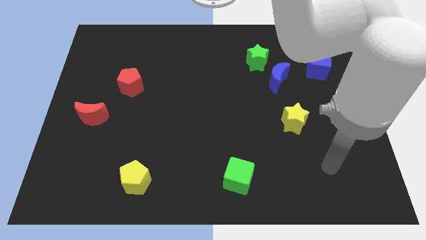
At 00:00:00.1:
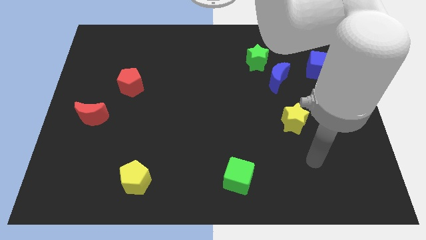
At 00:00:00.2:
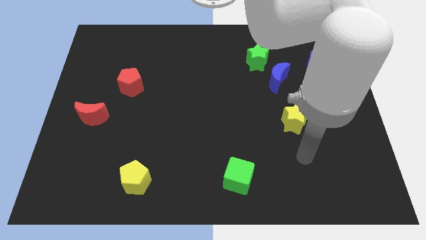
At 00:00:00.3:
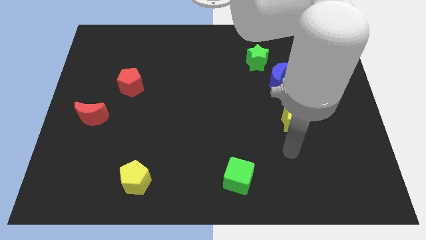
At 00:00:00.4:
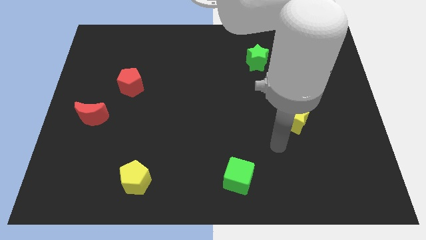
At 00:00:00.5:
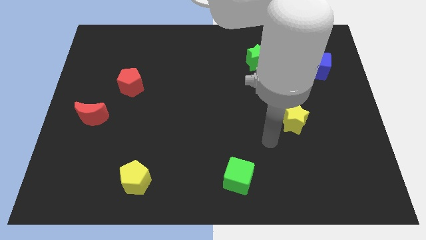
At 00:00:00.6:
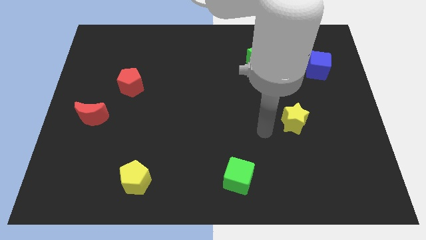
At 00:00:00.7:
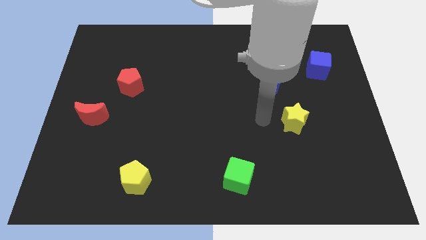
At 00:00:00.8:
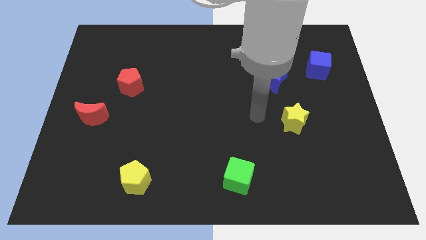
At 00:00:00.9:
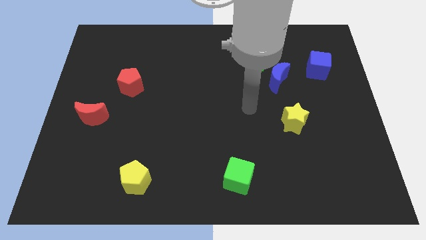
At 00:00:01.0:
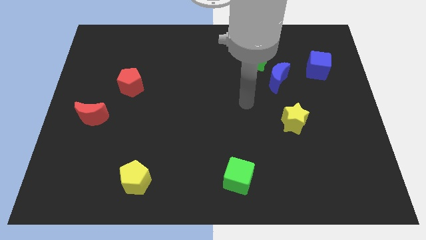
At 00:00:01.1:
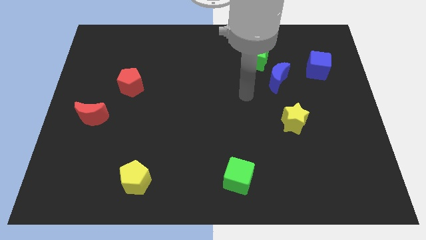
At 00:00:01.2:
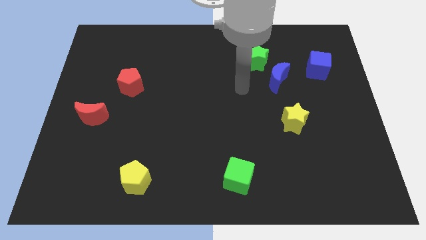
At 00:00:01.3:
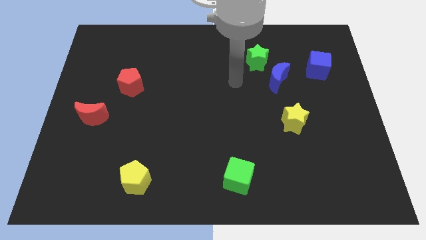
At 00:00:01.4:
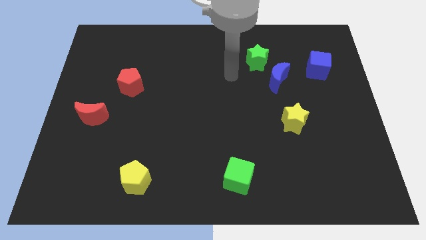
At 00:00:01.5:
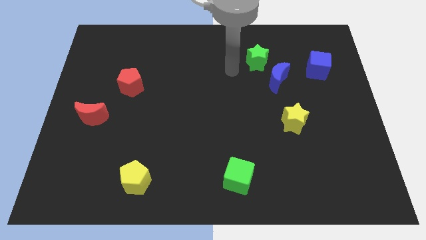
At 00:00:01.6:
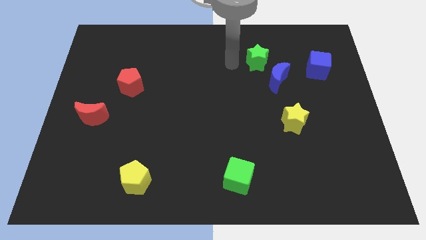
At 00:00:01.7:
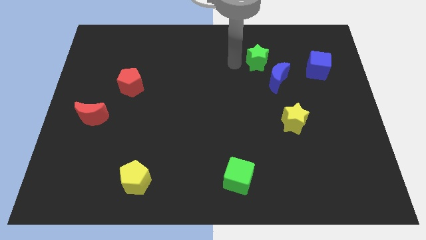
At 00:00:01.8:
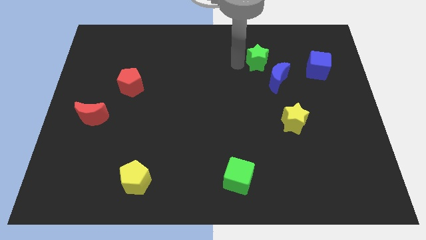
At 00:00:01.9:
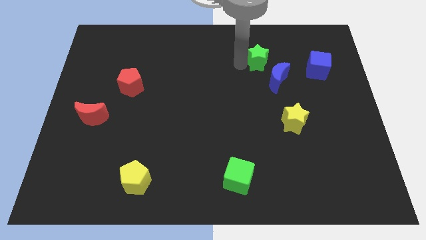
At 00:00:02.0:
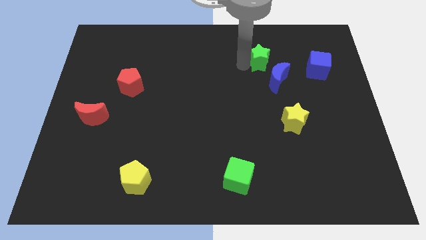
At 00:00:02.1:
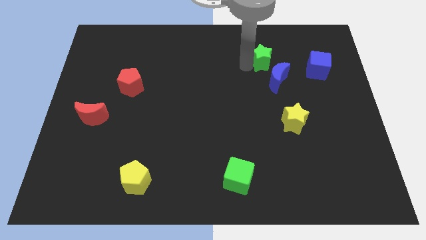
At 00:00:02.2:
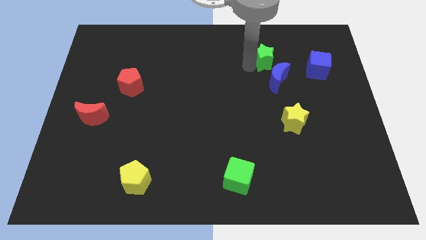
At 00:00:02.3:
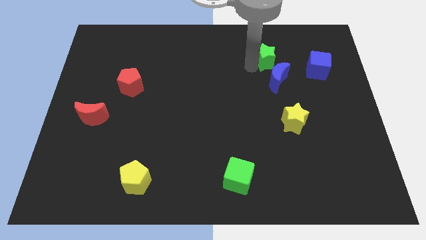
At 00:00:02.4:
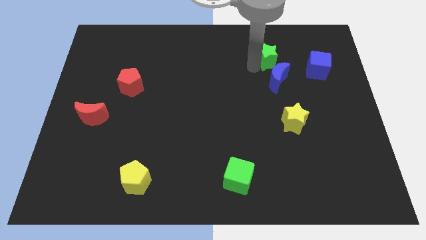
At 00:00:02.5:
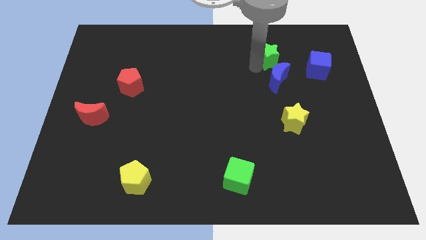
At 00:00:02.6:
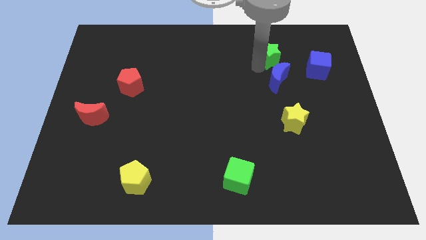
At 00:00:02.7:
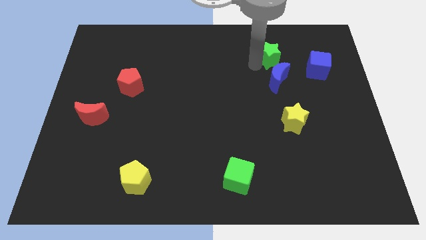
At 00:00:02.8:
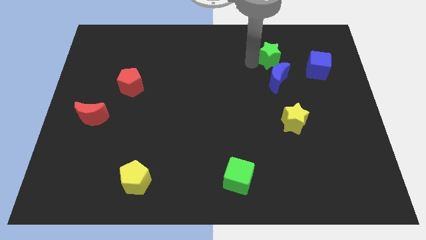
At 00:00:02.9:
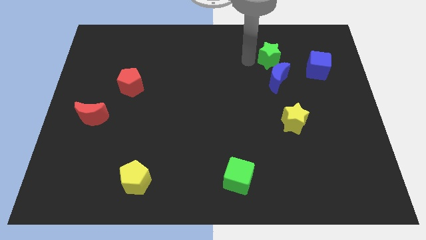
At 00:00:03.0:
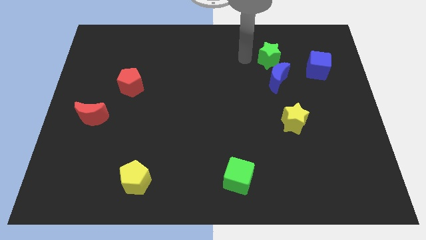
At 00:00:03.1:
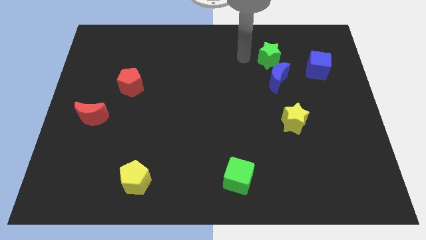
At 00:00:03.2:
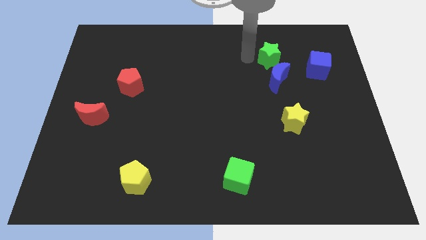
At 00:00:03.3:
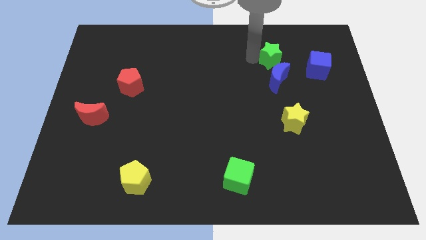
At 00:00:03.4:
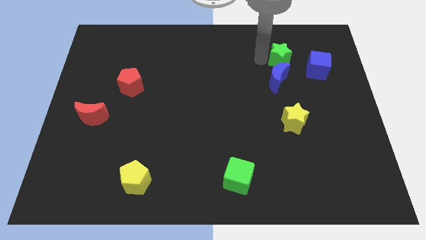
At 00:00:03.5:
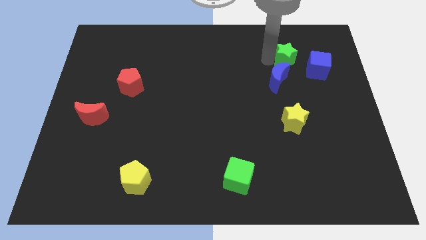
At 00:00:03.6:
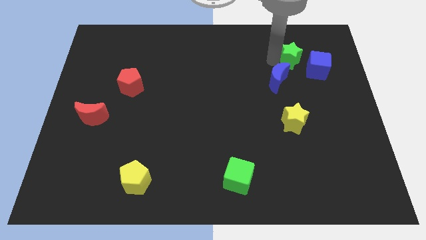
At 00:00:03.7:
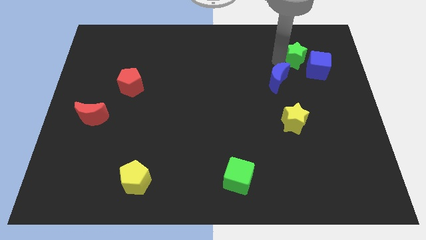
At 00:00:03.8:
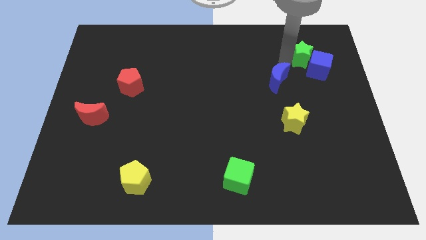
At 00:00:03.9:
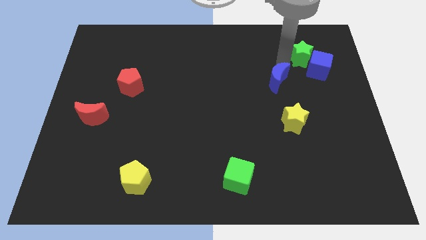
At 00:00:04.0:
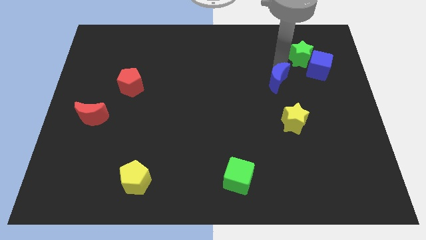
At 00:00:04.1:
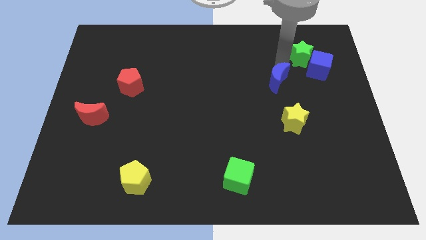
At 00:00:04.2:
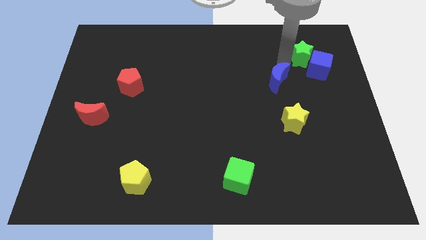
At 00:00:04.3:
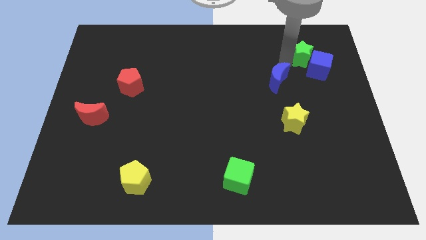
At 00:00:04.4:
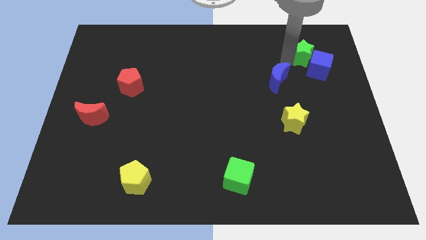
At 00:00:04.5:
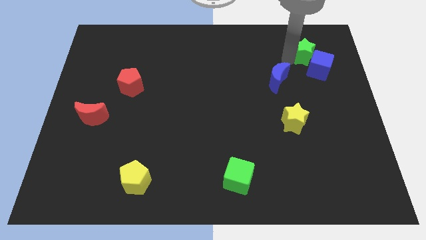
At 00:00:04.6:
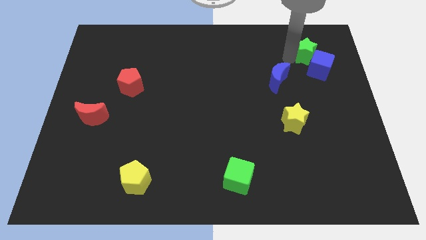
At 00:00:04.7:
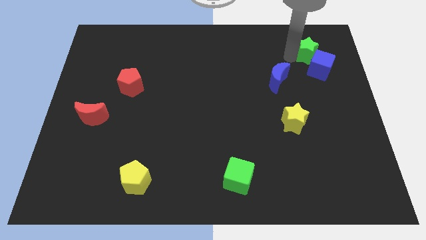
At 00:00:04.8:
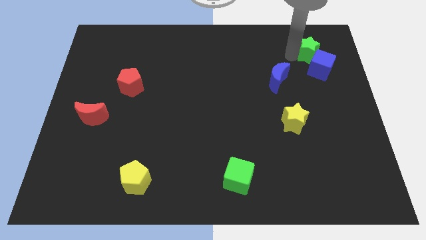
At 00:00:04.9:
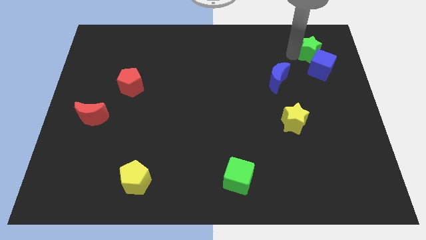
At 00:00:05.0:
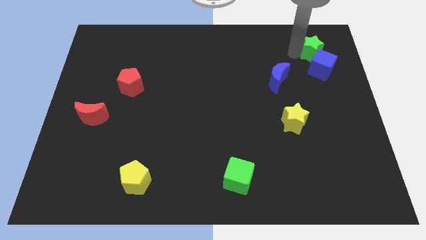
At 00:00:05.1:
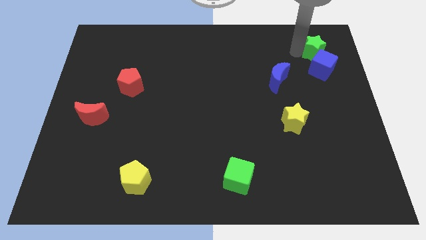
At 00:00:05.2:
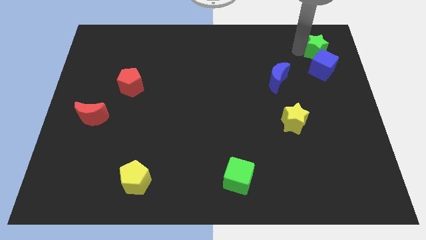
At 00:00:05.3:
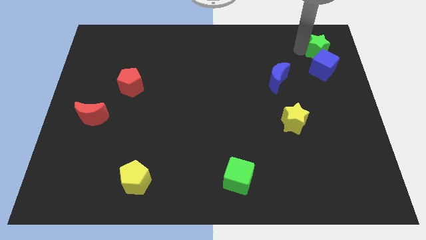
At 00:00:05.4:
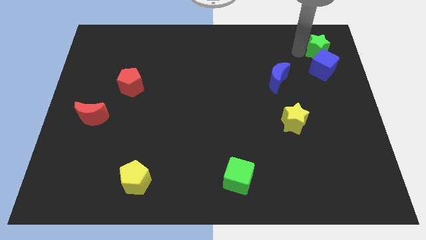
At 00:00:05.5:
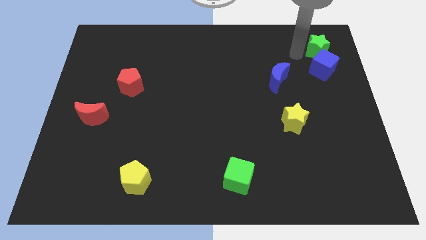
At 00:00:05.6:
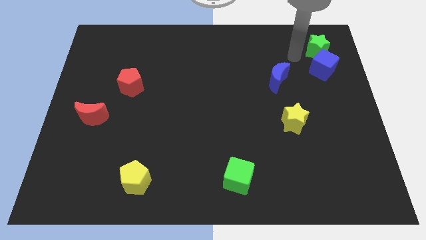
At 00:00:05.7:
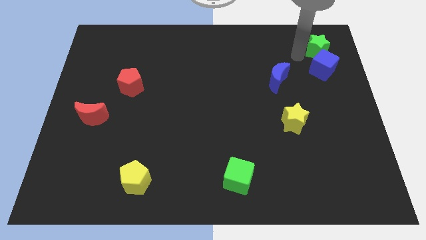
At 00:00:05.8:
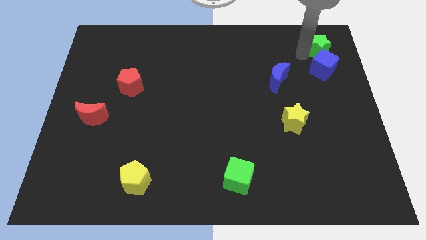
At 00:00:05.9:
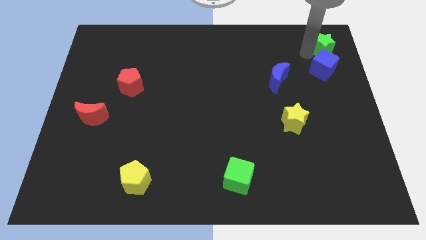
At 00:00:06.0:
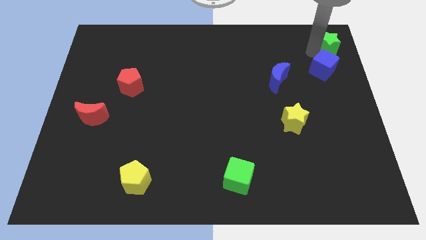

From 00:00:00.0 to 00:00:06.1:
slide the green star to the top right
